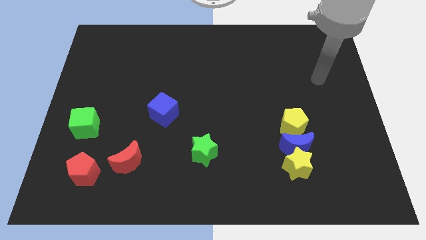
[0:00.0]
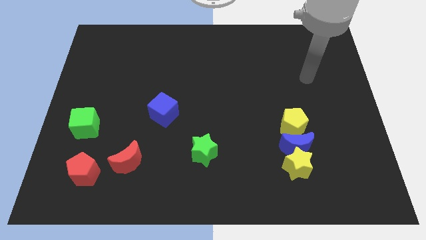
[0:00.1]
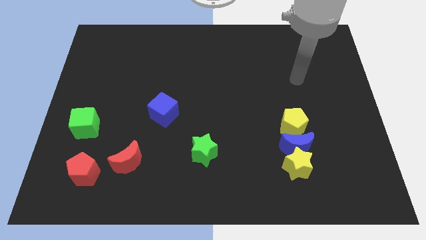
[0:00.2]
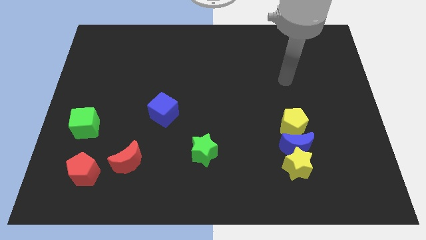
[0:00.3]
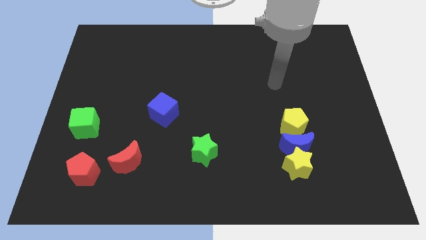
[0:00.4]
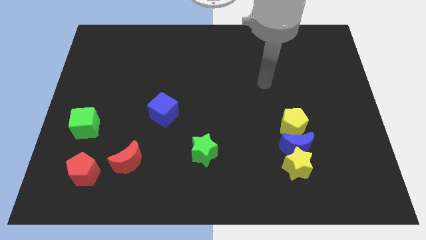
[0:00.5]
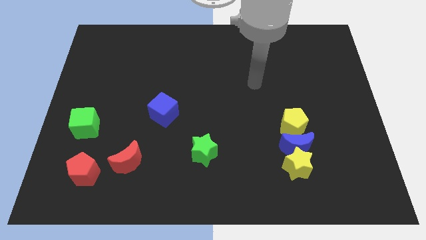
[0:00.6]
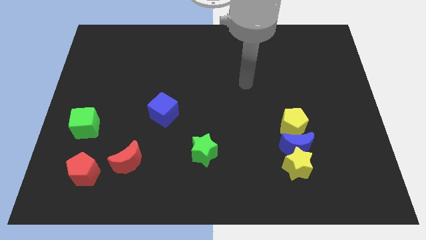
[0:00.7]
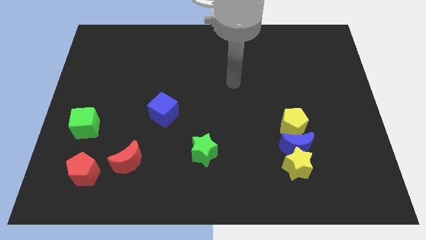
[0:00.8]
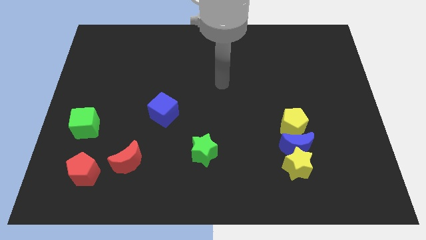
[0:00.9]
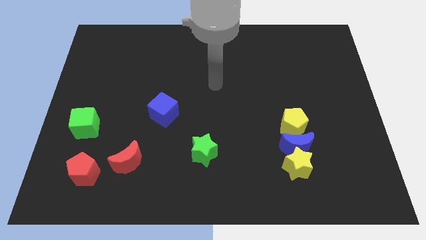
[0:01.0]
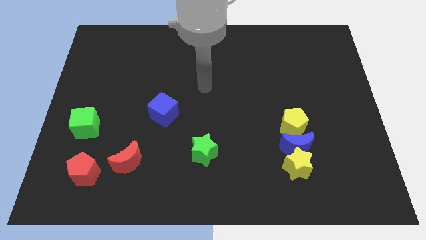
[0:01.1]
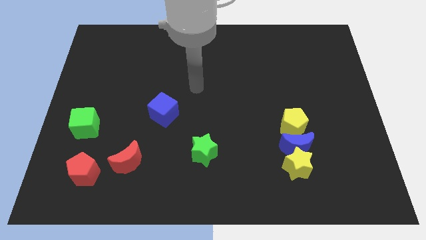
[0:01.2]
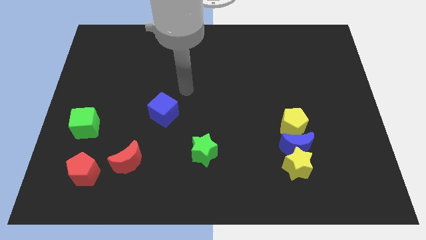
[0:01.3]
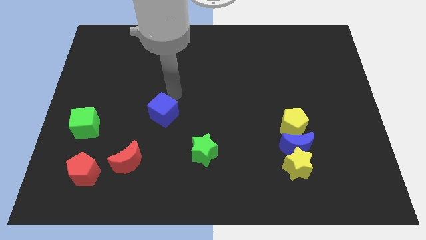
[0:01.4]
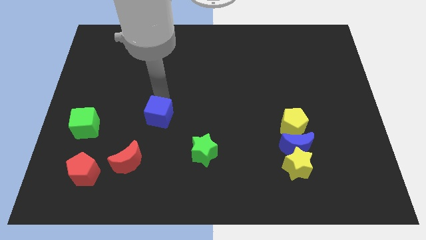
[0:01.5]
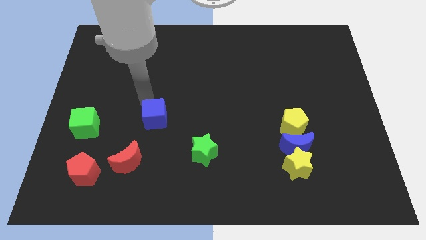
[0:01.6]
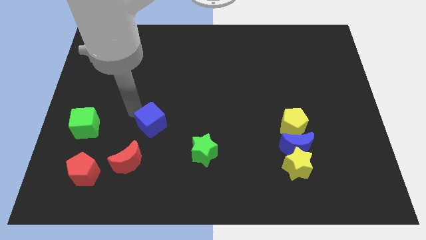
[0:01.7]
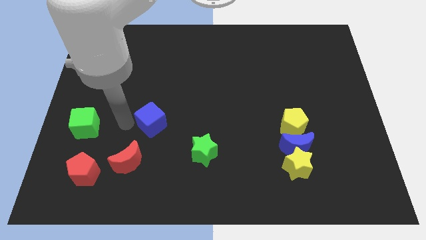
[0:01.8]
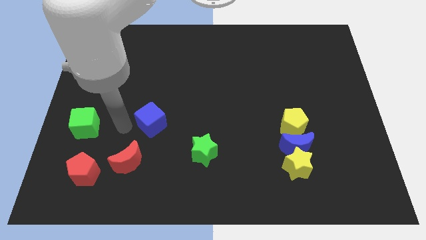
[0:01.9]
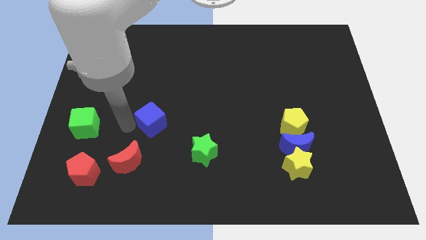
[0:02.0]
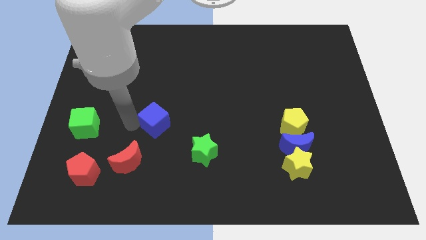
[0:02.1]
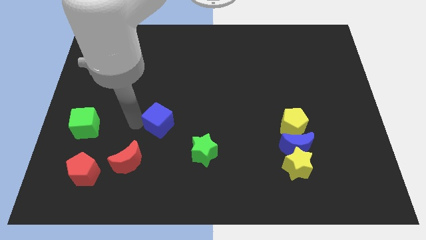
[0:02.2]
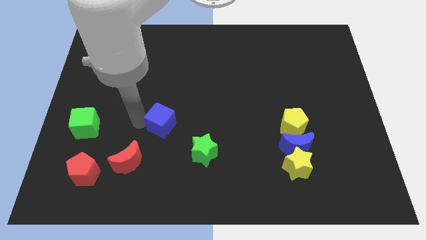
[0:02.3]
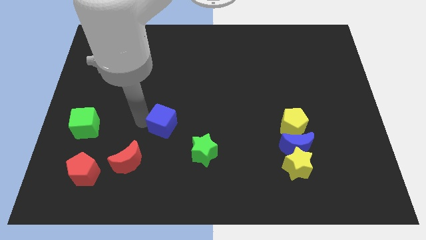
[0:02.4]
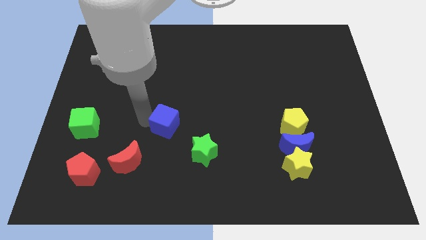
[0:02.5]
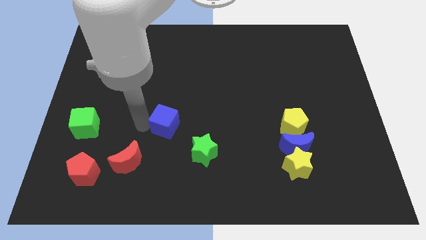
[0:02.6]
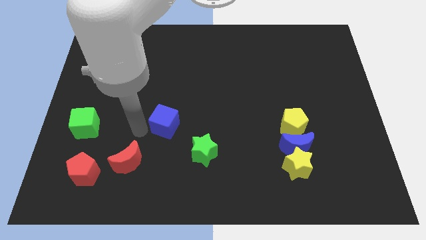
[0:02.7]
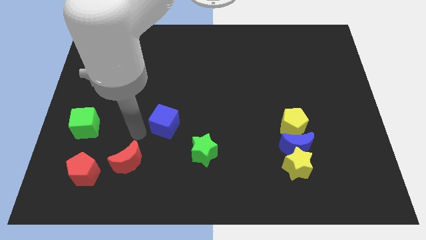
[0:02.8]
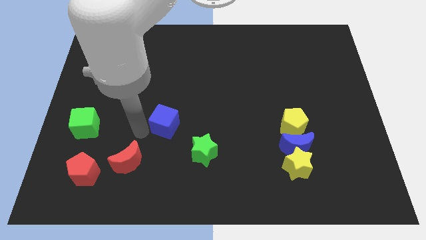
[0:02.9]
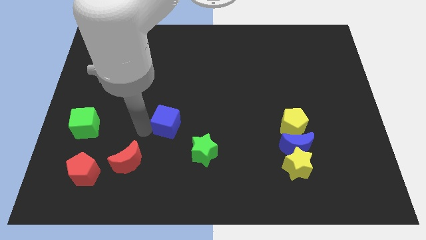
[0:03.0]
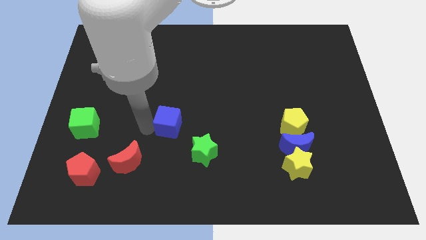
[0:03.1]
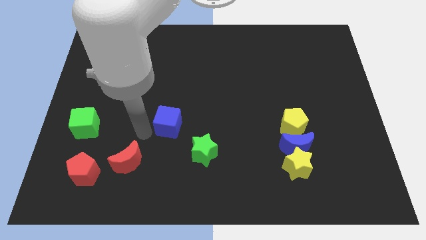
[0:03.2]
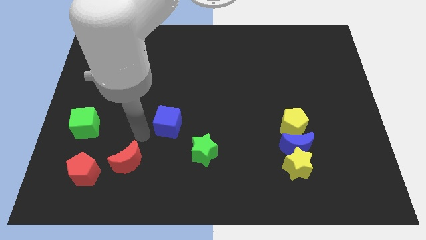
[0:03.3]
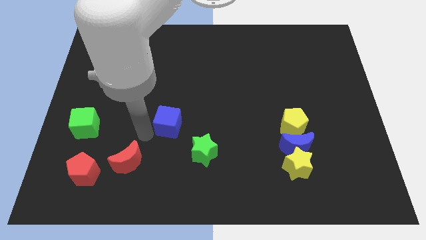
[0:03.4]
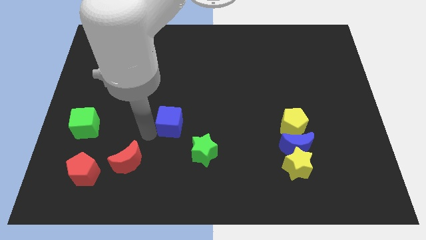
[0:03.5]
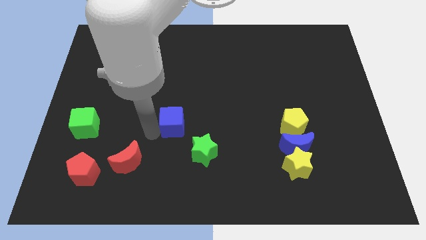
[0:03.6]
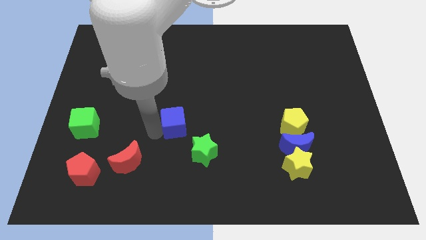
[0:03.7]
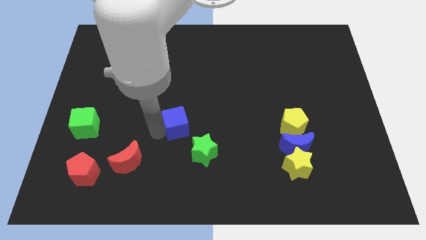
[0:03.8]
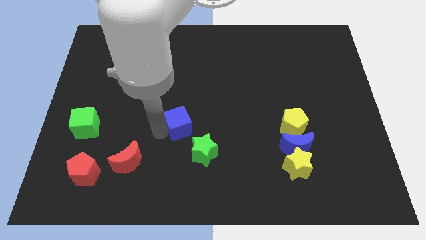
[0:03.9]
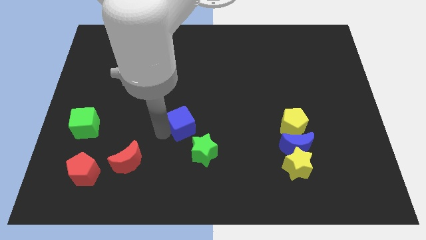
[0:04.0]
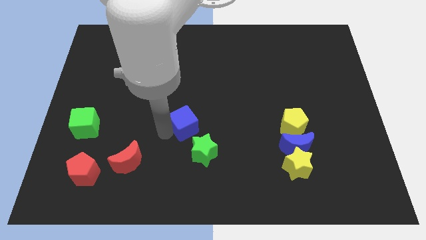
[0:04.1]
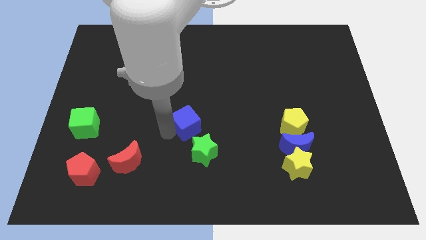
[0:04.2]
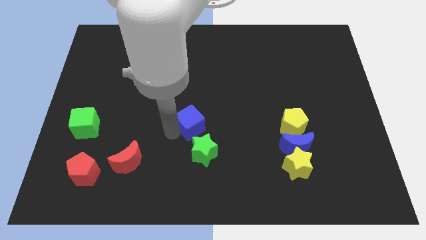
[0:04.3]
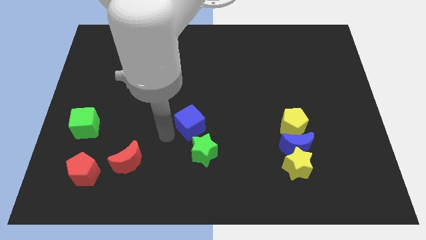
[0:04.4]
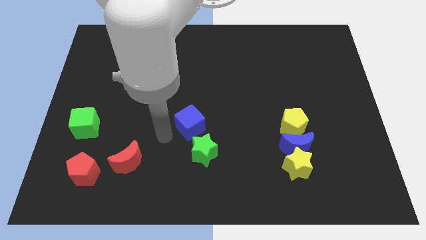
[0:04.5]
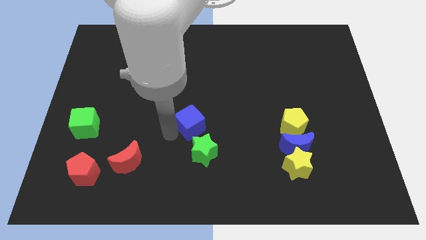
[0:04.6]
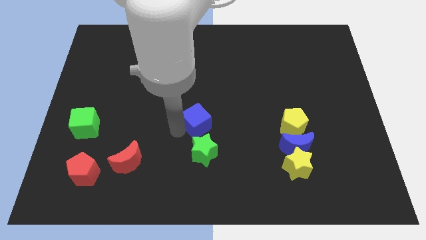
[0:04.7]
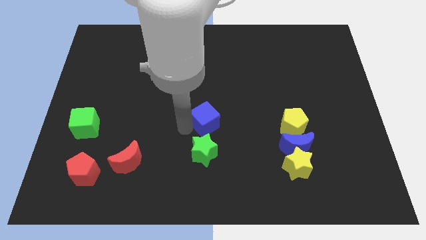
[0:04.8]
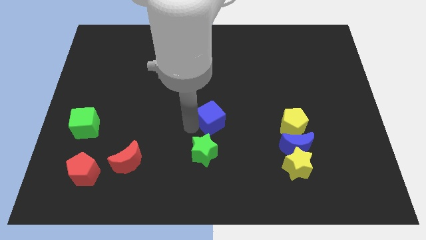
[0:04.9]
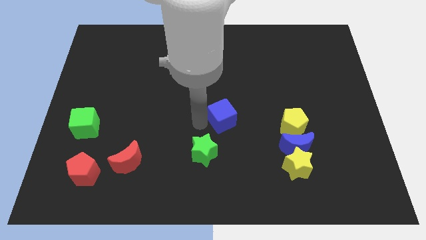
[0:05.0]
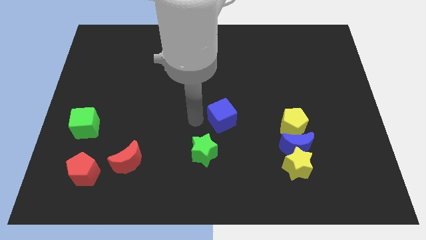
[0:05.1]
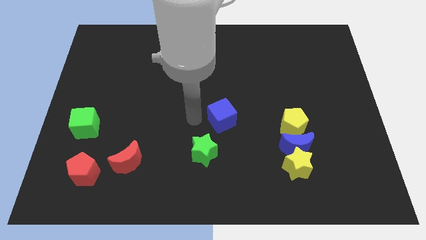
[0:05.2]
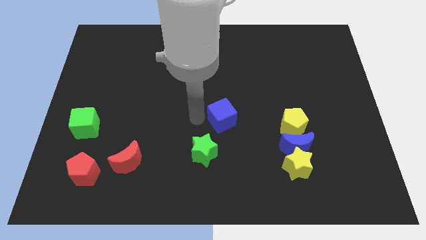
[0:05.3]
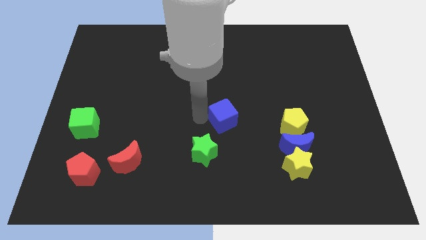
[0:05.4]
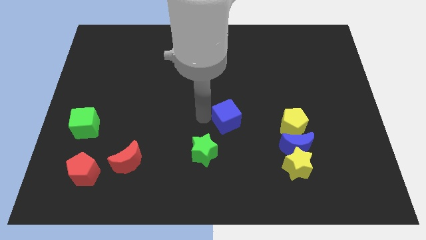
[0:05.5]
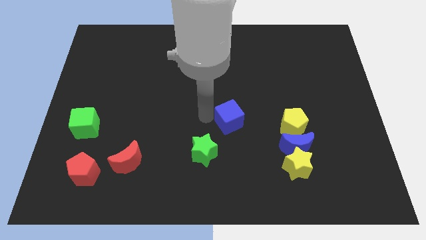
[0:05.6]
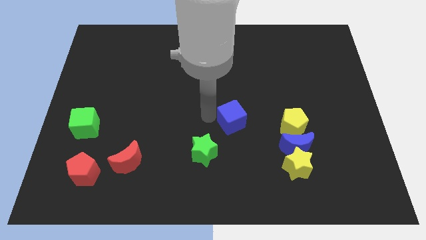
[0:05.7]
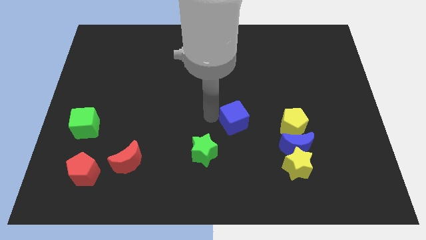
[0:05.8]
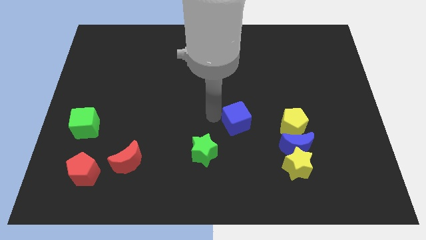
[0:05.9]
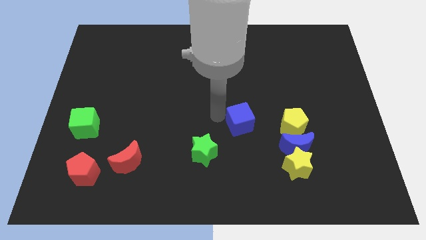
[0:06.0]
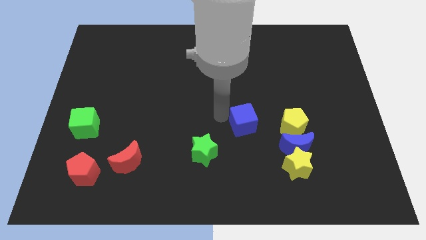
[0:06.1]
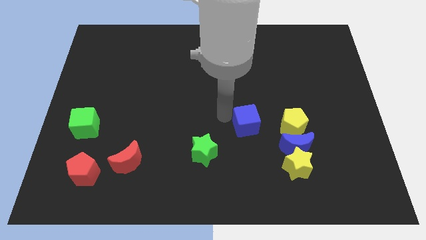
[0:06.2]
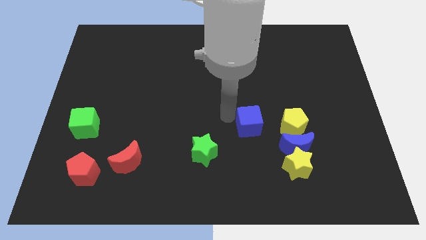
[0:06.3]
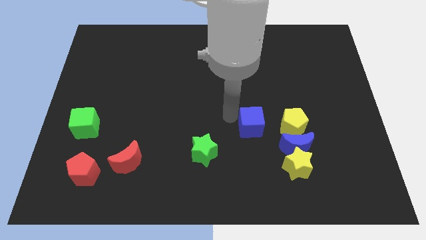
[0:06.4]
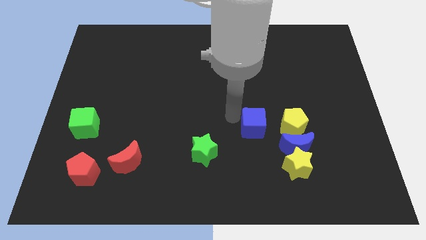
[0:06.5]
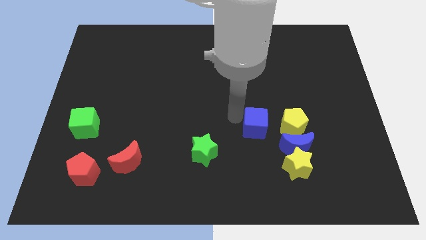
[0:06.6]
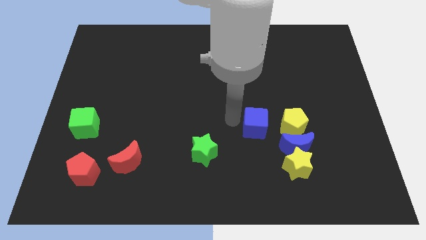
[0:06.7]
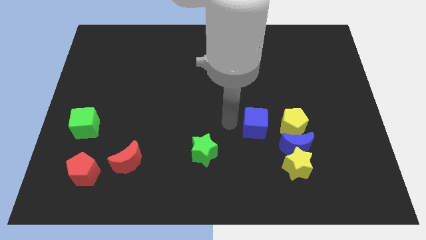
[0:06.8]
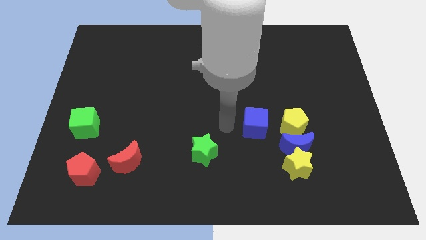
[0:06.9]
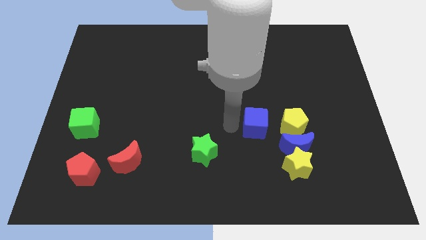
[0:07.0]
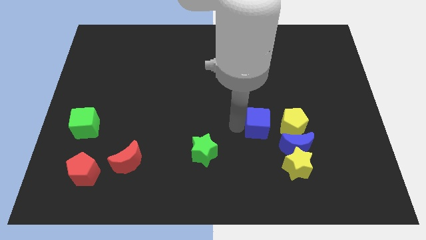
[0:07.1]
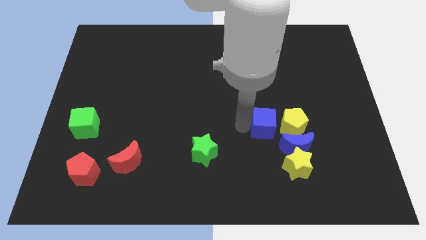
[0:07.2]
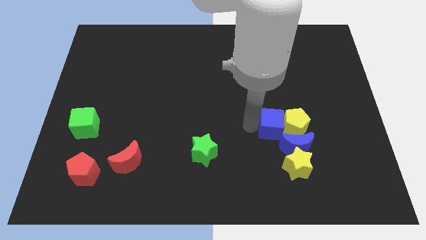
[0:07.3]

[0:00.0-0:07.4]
move the blue cube next to the yellow pentagon
